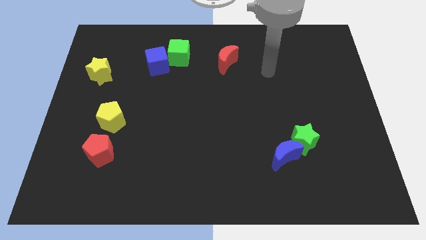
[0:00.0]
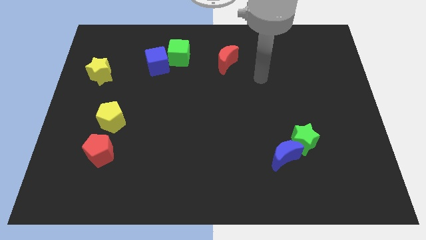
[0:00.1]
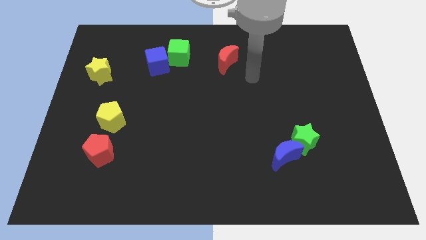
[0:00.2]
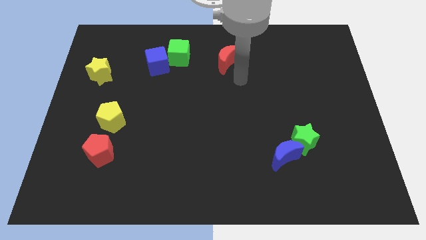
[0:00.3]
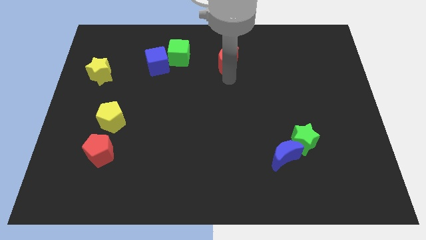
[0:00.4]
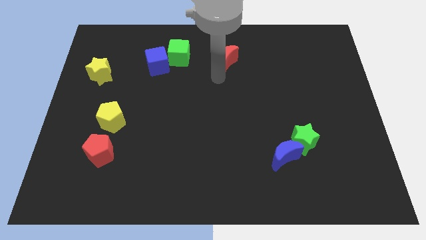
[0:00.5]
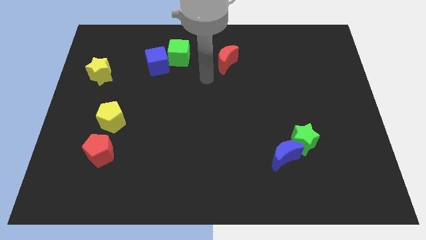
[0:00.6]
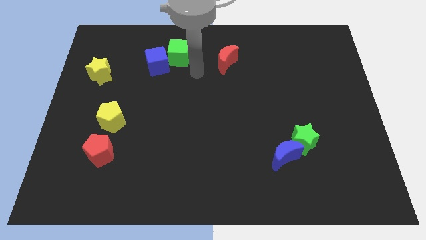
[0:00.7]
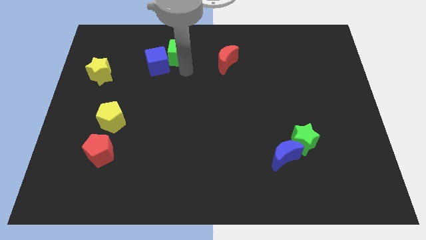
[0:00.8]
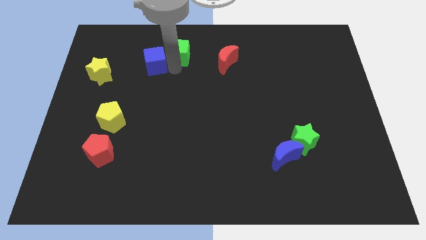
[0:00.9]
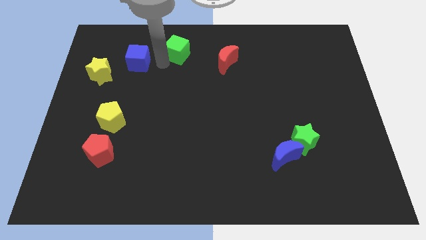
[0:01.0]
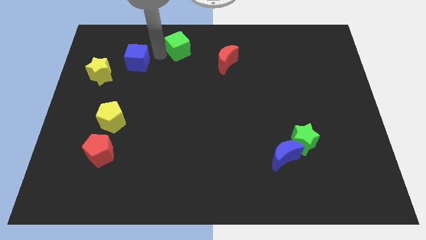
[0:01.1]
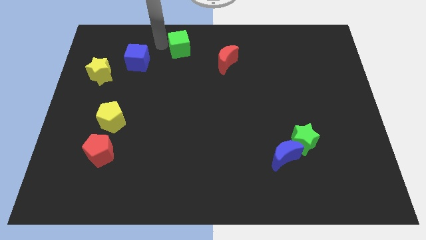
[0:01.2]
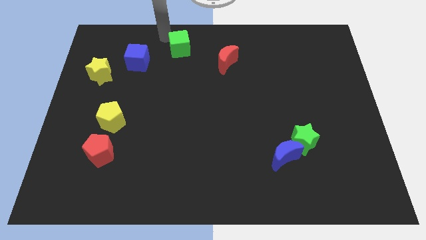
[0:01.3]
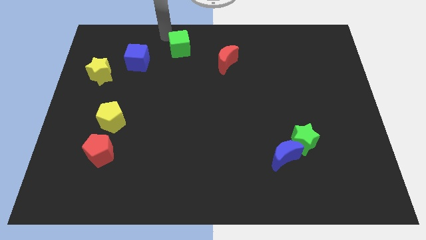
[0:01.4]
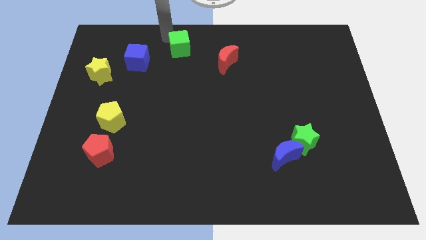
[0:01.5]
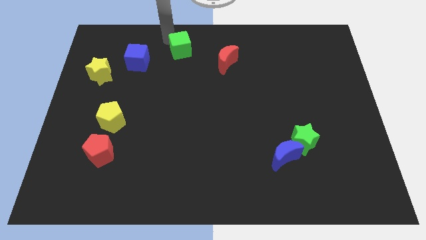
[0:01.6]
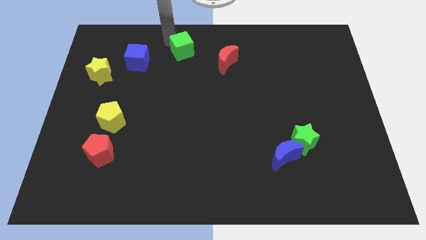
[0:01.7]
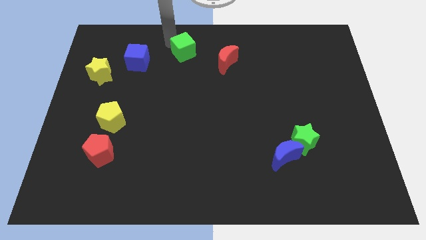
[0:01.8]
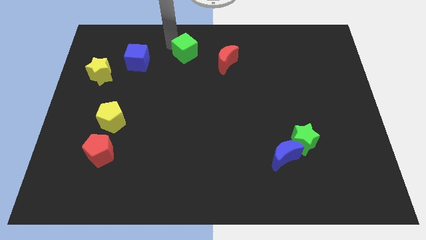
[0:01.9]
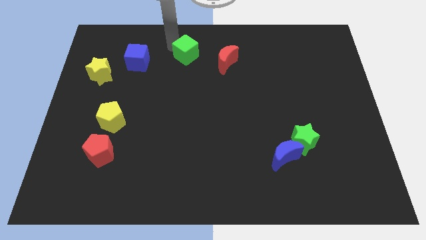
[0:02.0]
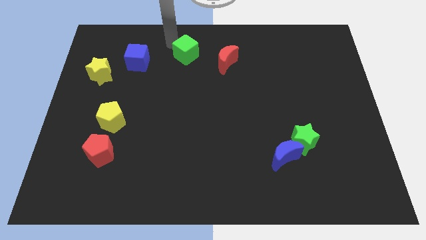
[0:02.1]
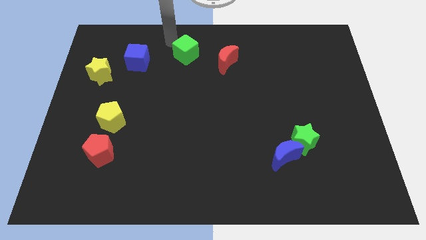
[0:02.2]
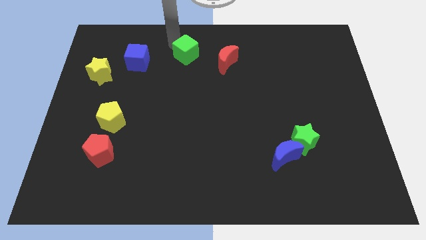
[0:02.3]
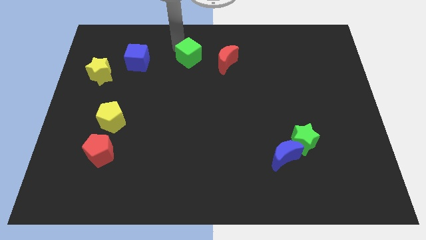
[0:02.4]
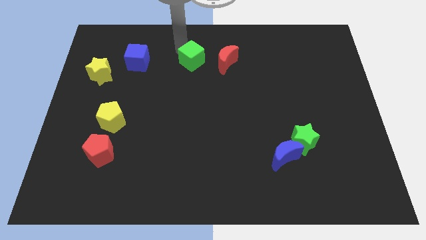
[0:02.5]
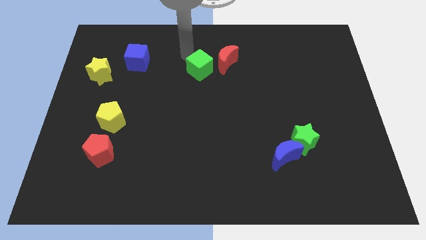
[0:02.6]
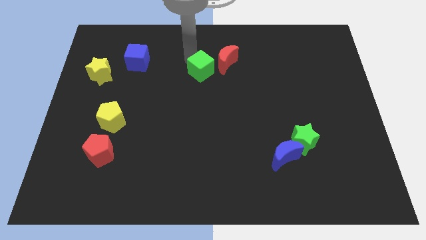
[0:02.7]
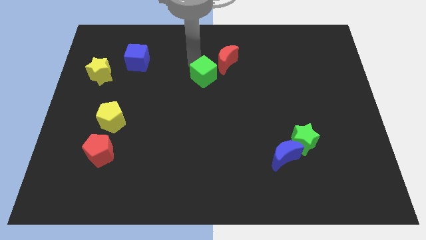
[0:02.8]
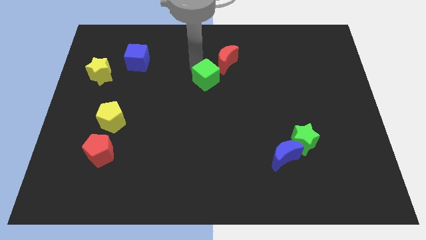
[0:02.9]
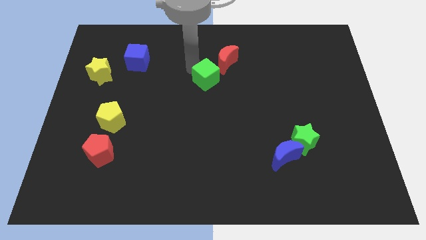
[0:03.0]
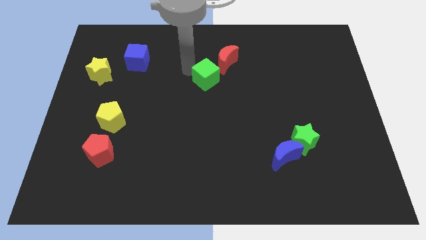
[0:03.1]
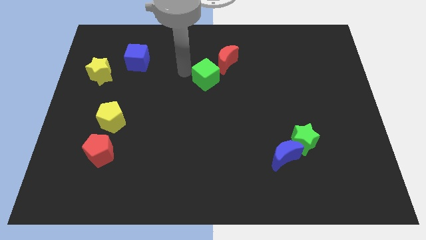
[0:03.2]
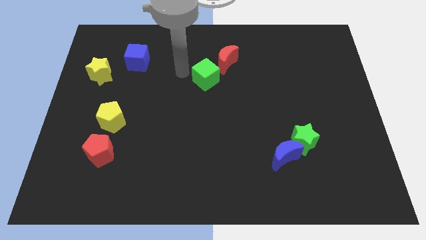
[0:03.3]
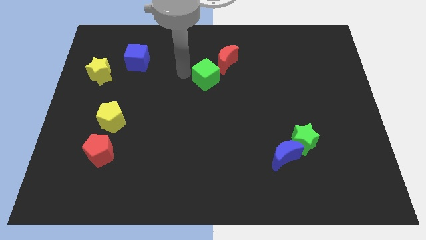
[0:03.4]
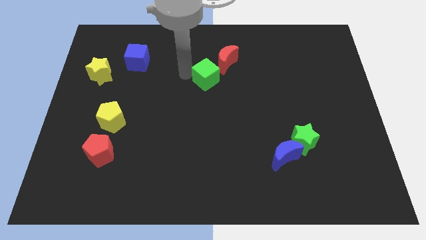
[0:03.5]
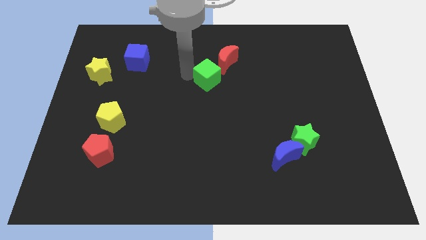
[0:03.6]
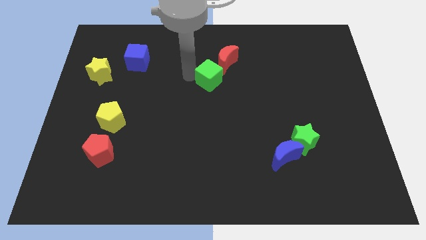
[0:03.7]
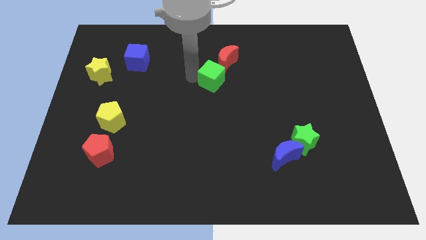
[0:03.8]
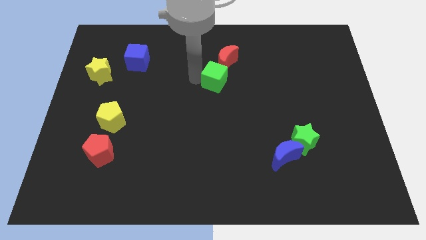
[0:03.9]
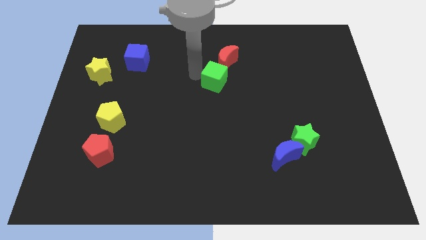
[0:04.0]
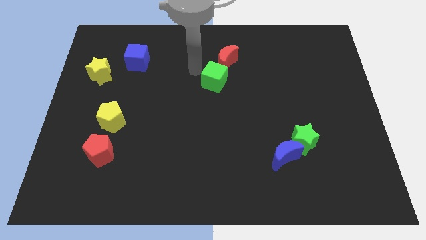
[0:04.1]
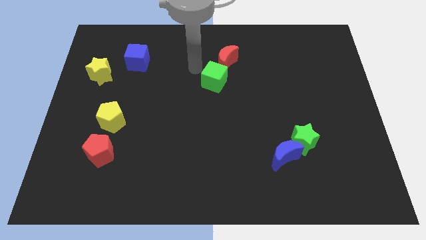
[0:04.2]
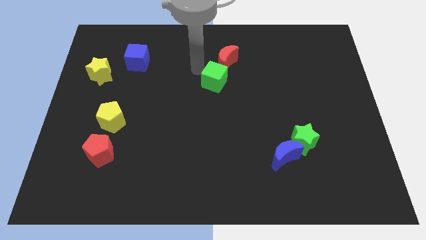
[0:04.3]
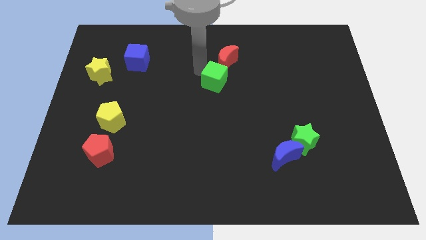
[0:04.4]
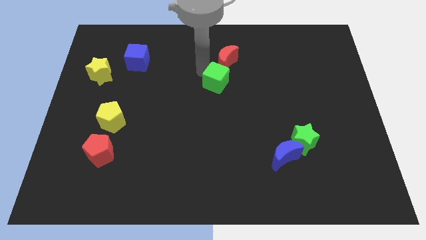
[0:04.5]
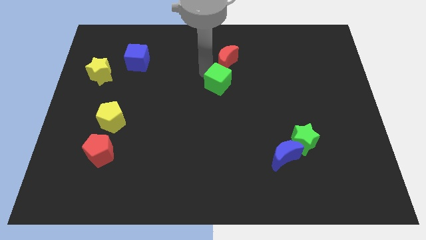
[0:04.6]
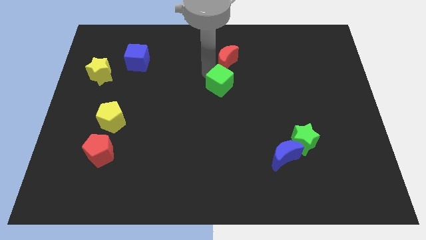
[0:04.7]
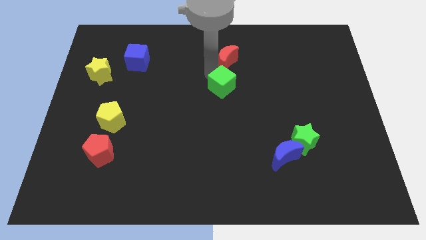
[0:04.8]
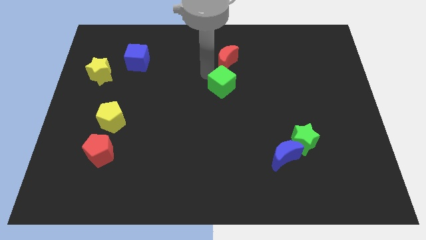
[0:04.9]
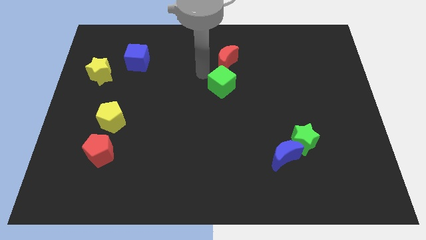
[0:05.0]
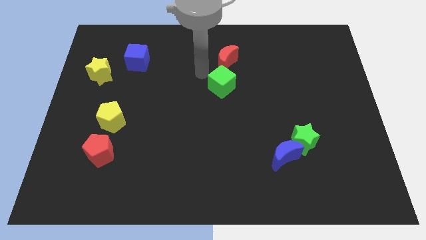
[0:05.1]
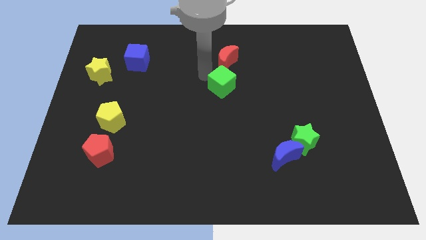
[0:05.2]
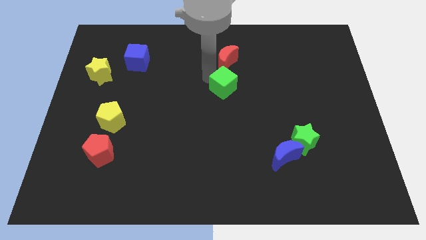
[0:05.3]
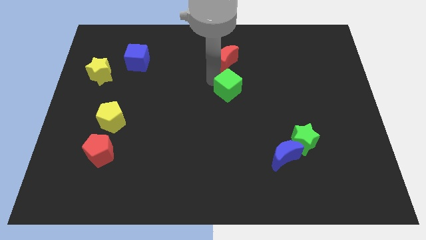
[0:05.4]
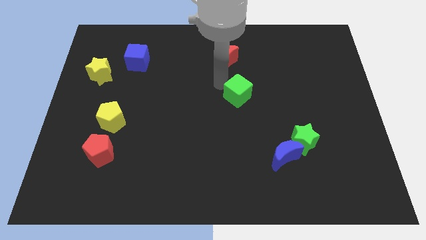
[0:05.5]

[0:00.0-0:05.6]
move the green cube down and to the right

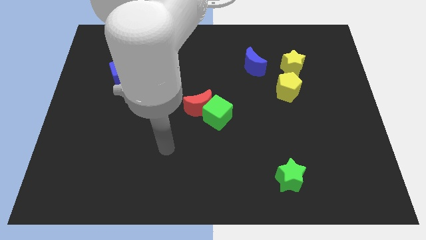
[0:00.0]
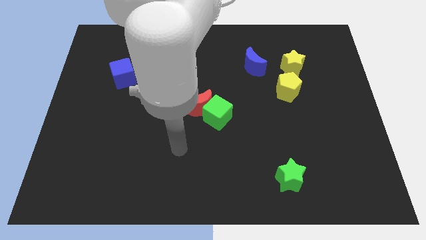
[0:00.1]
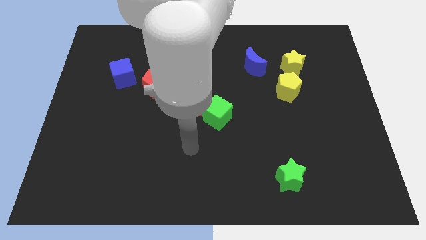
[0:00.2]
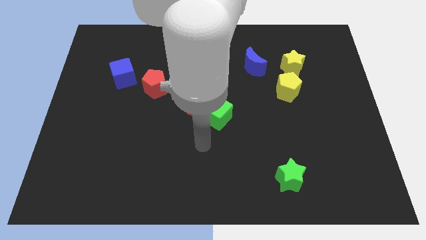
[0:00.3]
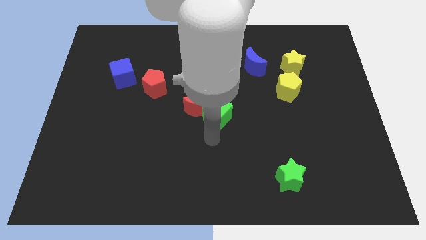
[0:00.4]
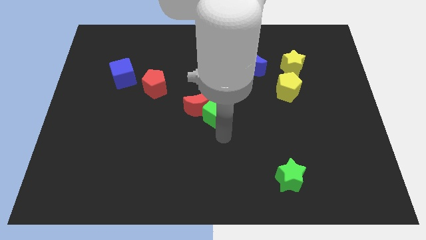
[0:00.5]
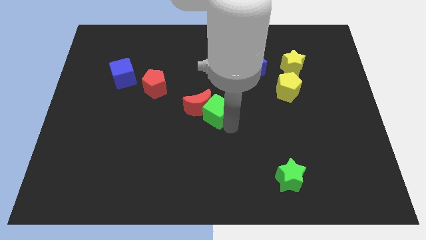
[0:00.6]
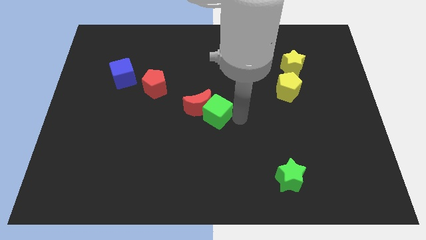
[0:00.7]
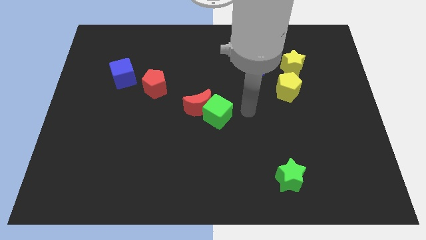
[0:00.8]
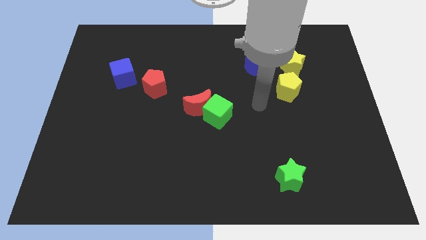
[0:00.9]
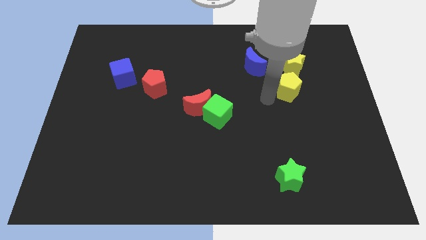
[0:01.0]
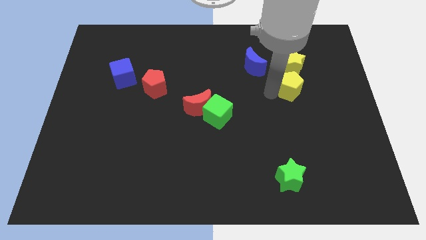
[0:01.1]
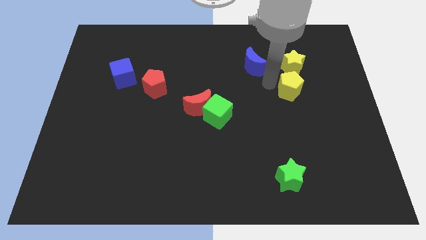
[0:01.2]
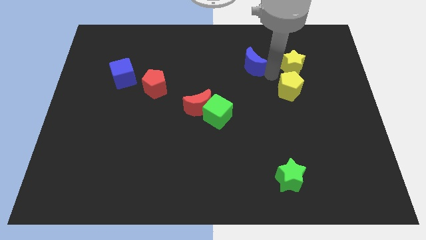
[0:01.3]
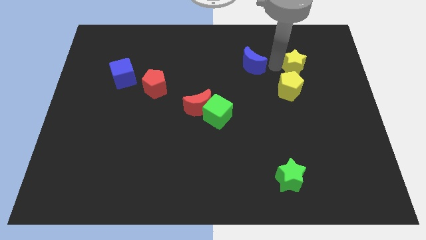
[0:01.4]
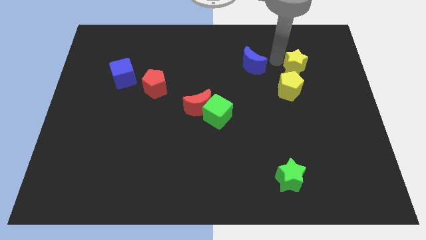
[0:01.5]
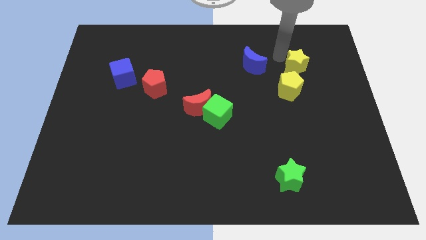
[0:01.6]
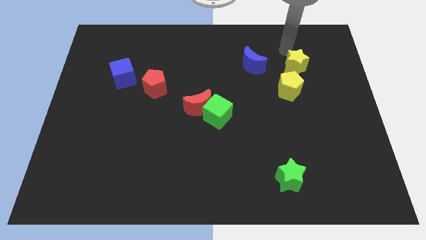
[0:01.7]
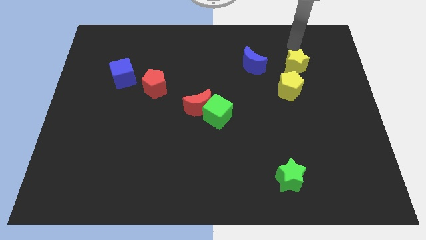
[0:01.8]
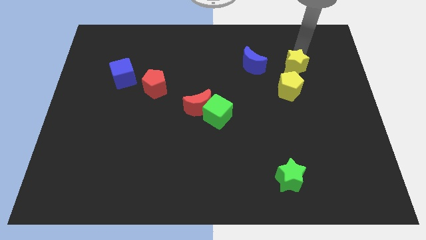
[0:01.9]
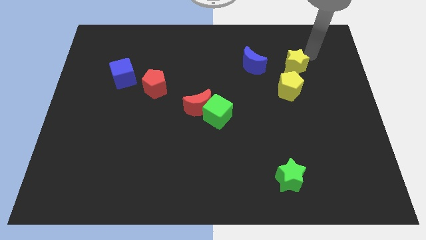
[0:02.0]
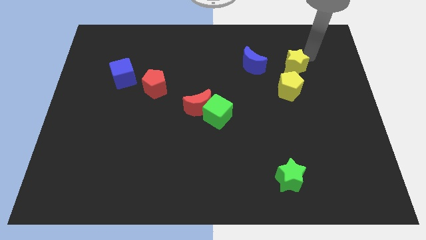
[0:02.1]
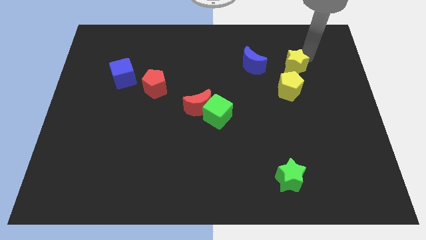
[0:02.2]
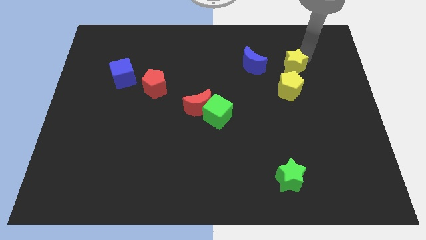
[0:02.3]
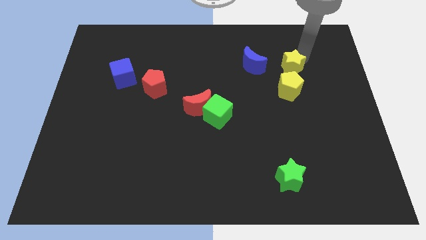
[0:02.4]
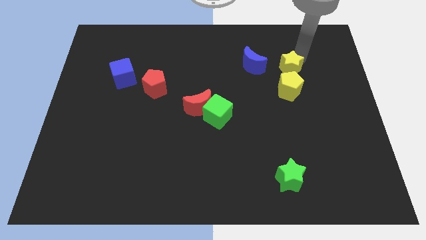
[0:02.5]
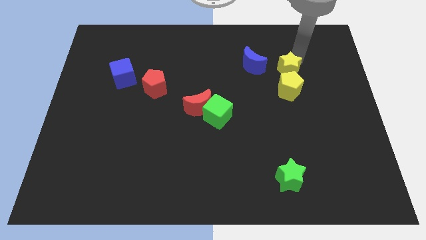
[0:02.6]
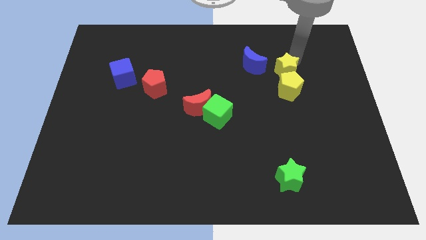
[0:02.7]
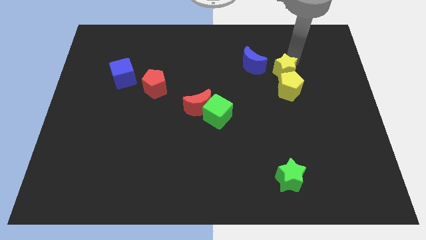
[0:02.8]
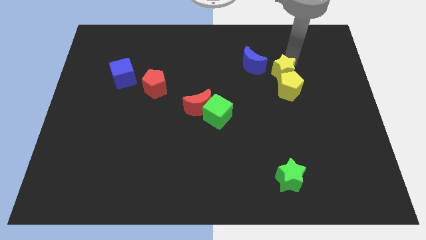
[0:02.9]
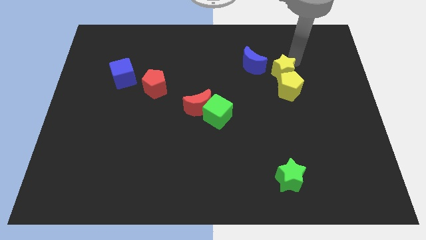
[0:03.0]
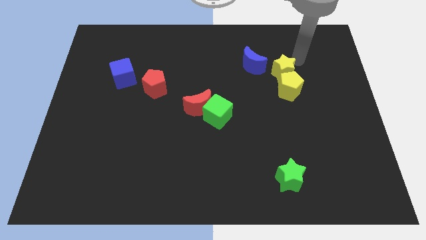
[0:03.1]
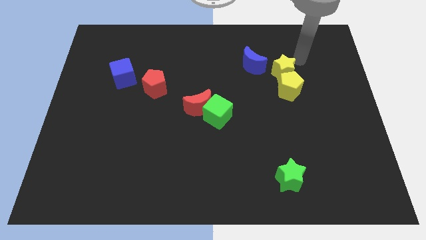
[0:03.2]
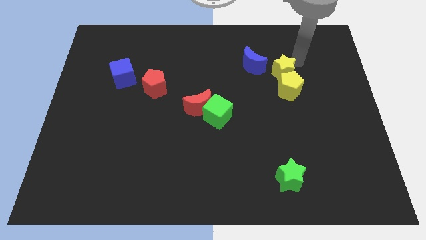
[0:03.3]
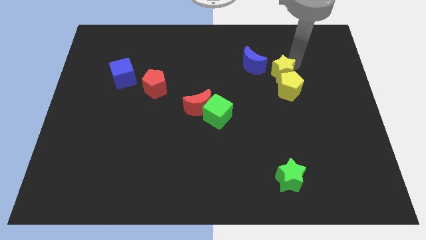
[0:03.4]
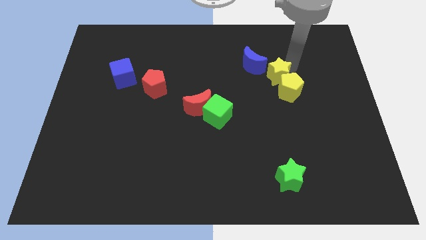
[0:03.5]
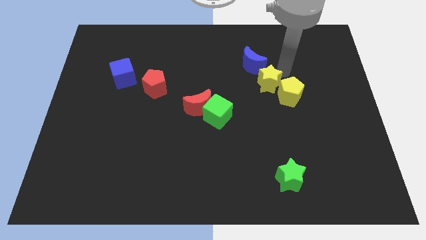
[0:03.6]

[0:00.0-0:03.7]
slightly slide the yellow star diagonally down and to the left
